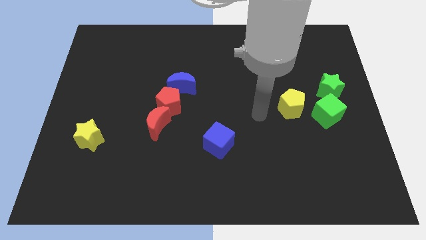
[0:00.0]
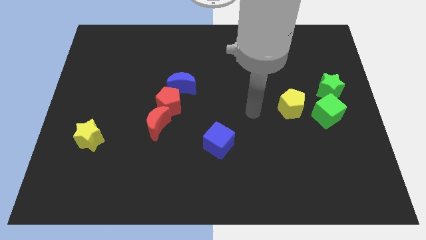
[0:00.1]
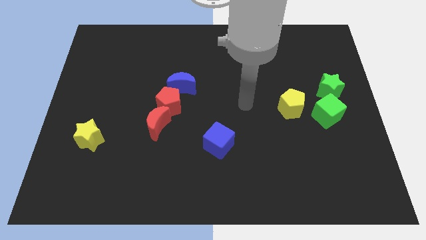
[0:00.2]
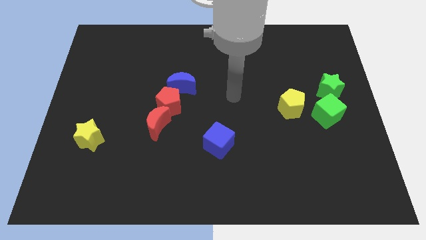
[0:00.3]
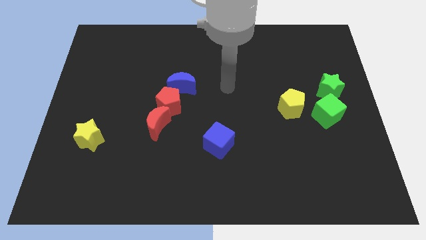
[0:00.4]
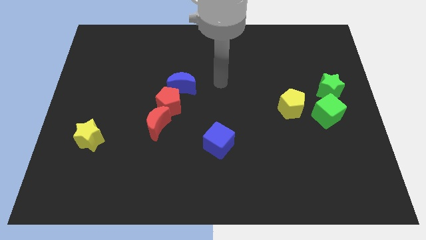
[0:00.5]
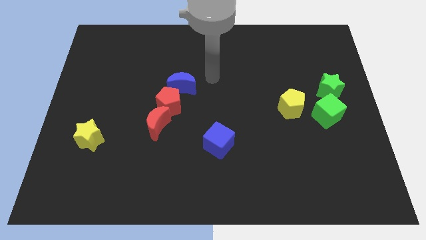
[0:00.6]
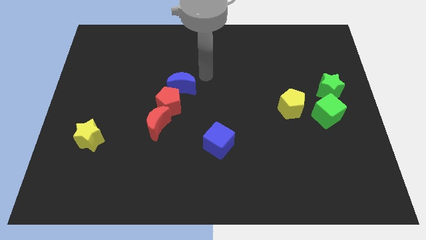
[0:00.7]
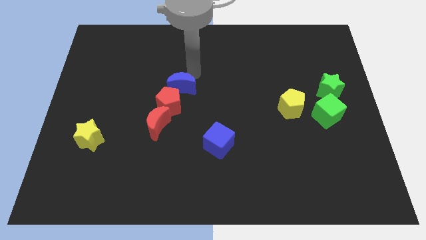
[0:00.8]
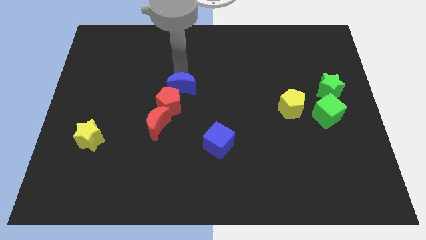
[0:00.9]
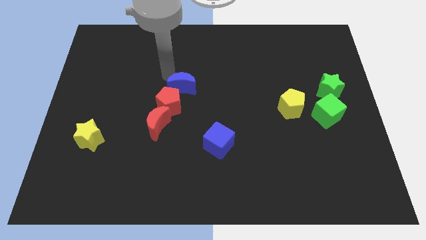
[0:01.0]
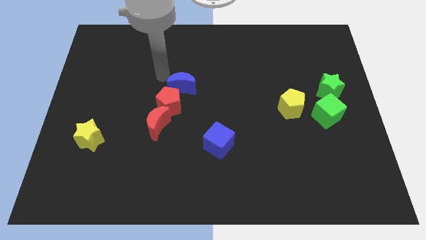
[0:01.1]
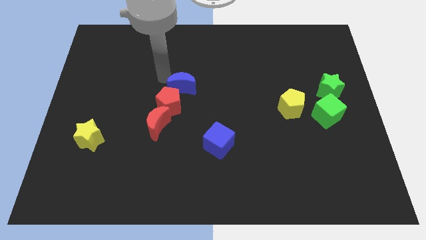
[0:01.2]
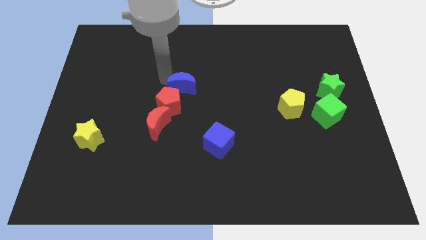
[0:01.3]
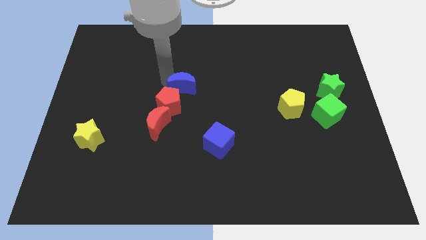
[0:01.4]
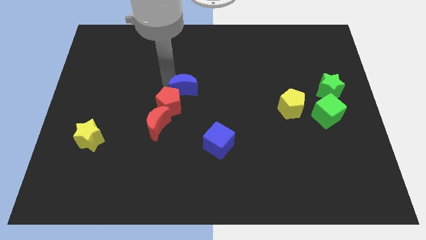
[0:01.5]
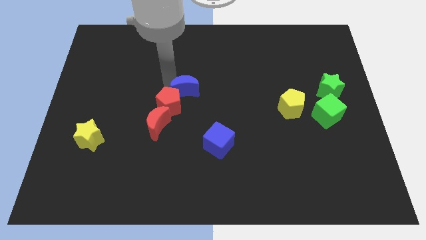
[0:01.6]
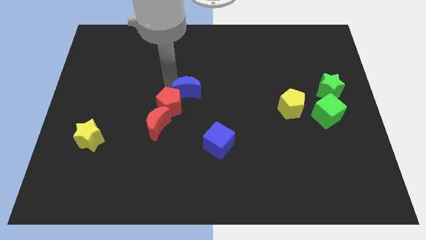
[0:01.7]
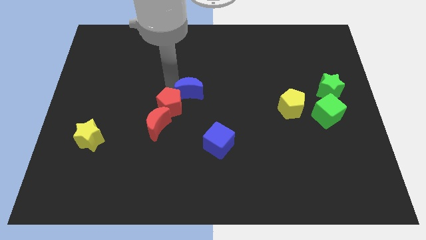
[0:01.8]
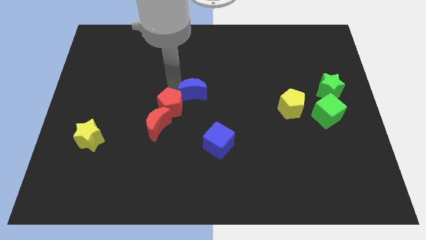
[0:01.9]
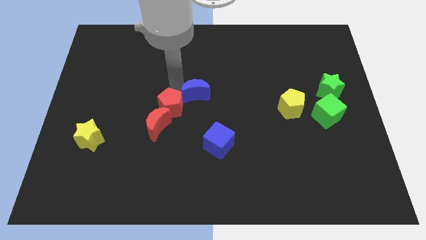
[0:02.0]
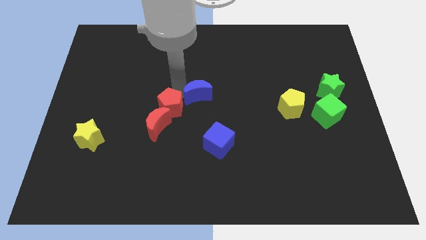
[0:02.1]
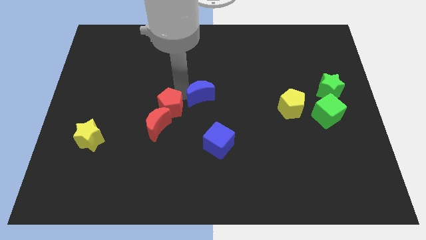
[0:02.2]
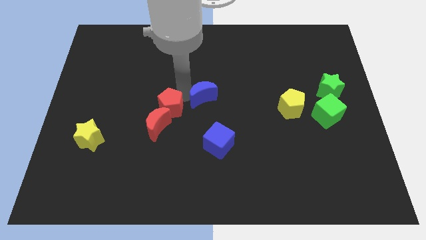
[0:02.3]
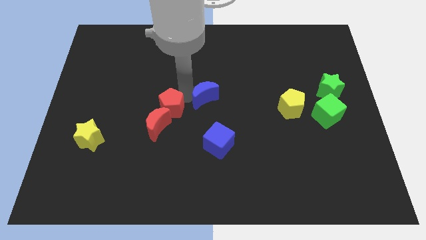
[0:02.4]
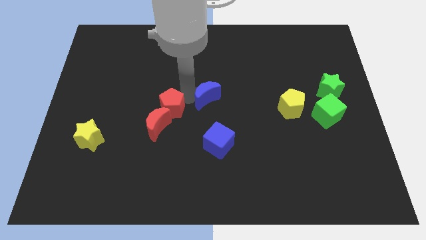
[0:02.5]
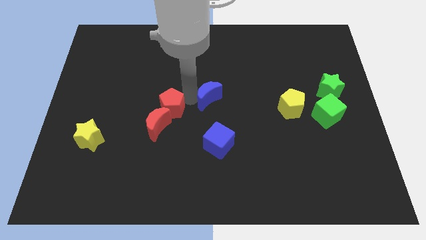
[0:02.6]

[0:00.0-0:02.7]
slightly slide the blue moon downwards and right diagonally

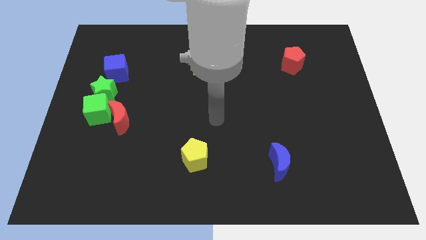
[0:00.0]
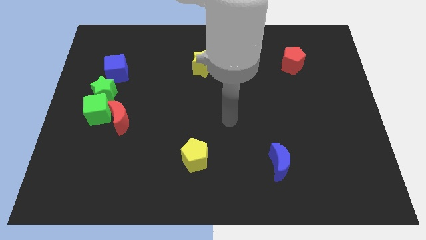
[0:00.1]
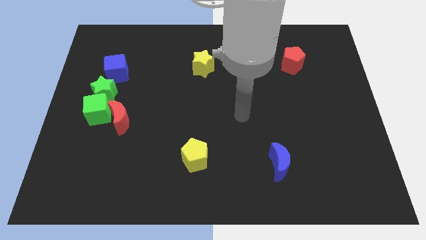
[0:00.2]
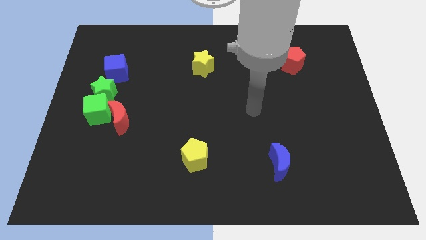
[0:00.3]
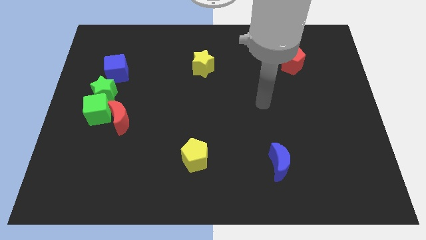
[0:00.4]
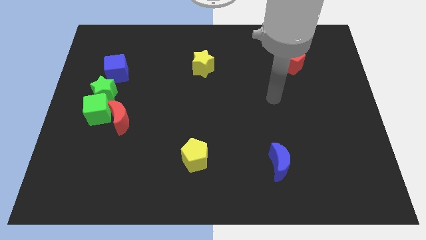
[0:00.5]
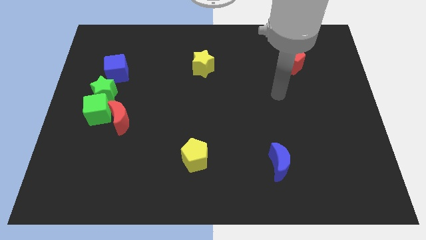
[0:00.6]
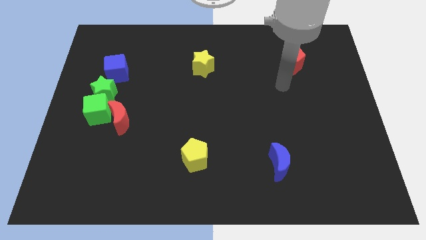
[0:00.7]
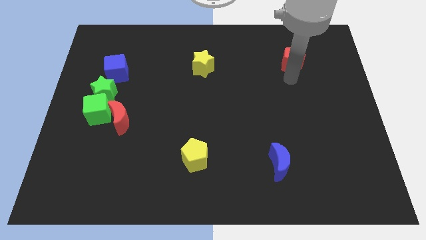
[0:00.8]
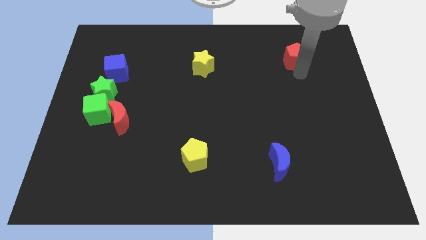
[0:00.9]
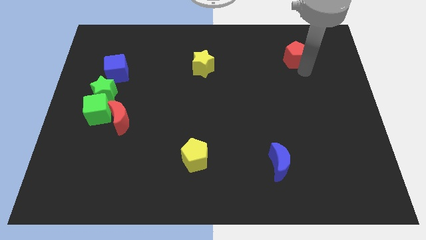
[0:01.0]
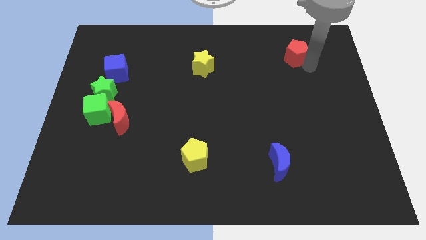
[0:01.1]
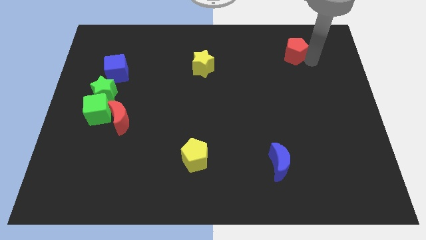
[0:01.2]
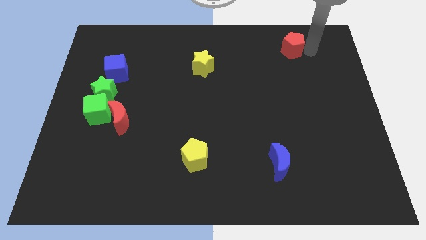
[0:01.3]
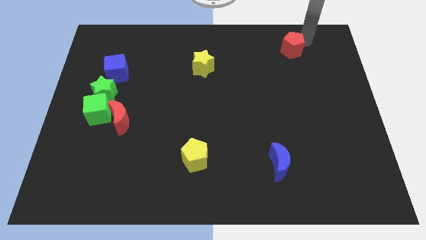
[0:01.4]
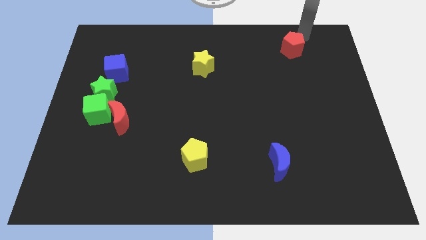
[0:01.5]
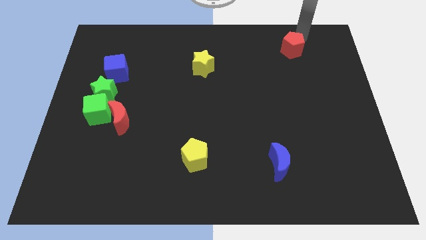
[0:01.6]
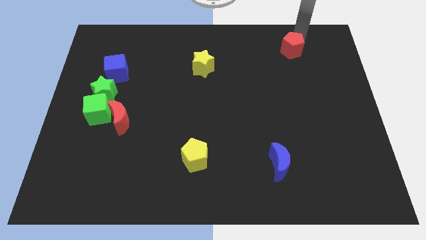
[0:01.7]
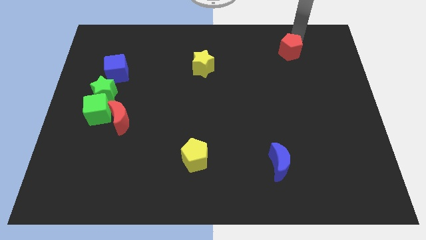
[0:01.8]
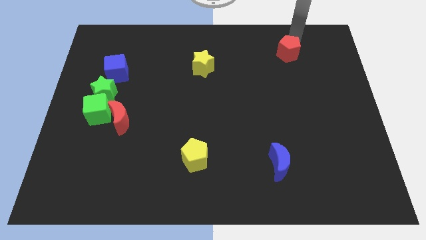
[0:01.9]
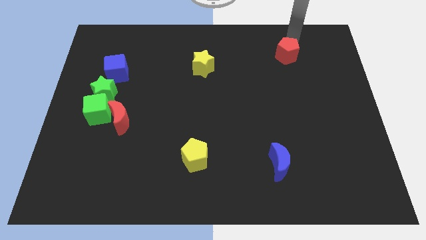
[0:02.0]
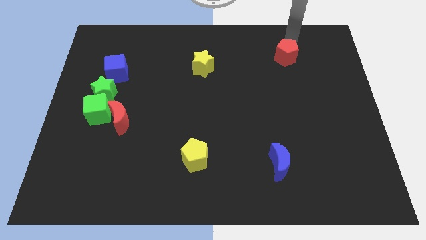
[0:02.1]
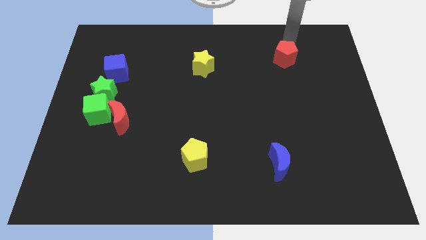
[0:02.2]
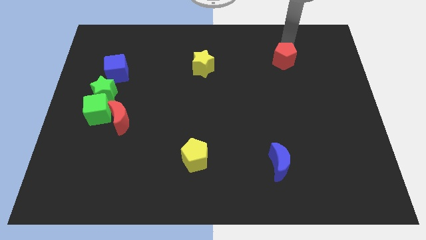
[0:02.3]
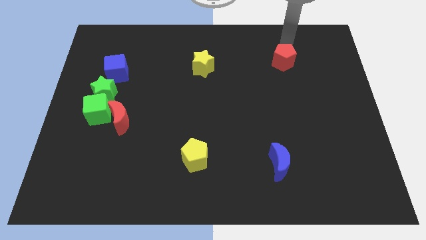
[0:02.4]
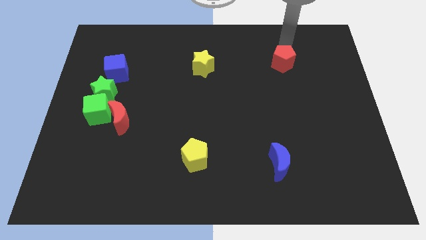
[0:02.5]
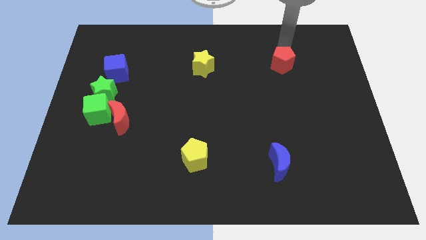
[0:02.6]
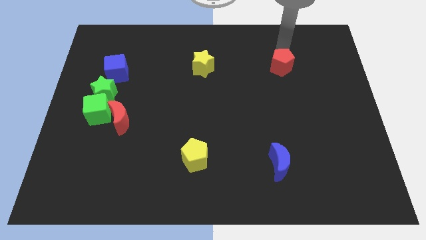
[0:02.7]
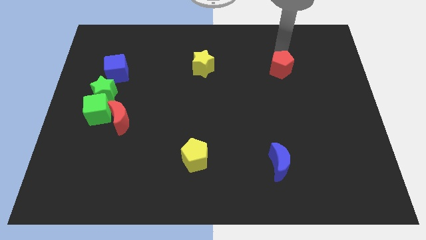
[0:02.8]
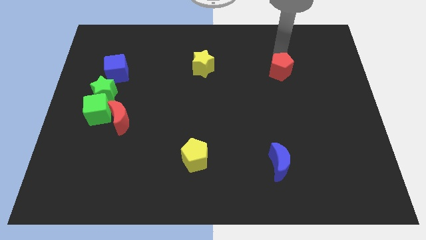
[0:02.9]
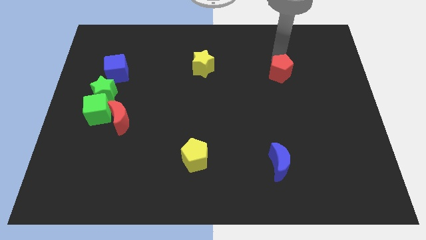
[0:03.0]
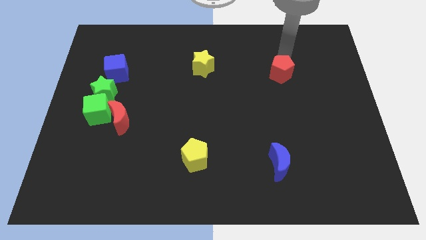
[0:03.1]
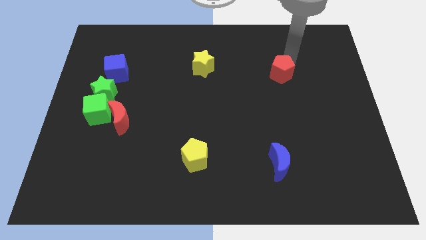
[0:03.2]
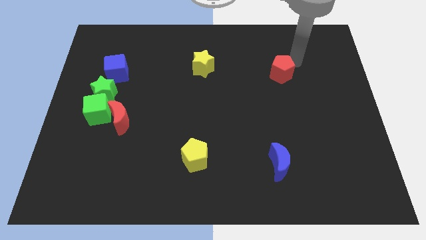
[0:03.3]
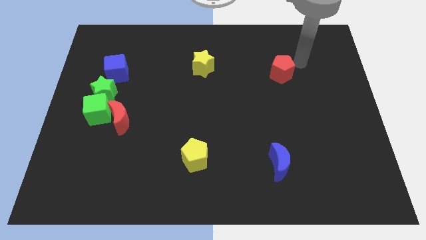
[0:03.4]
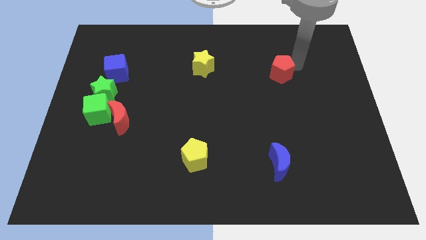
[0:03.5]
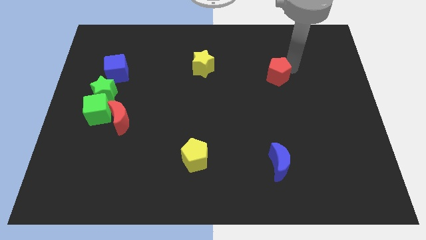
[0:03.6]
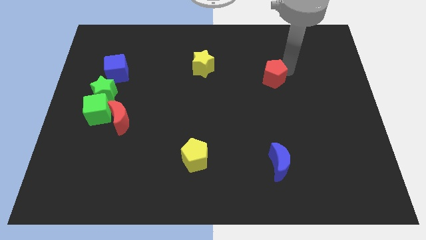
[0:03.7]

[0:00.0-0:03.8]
slide the red pentagon downwards and then left a bit

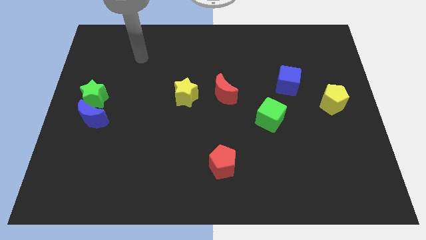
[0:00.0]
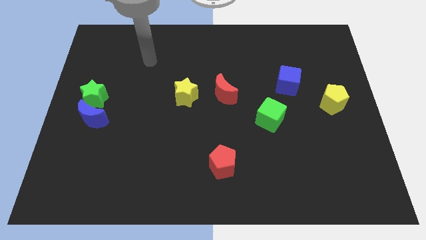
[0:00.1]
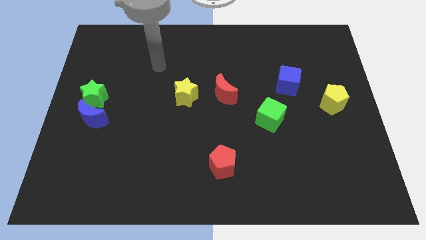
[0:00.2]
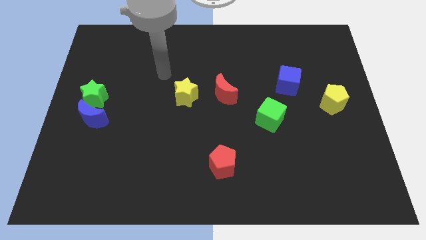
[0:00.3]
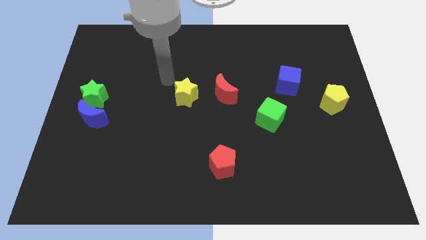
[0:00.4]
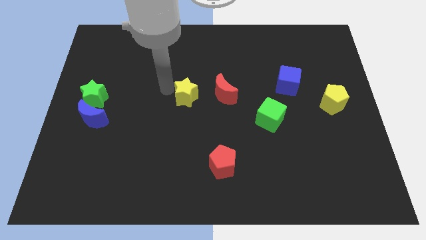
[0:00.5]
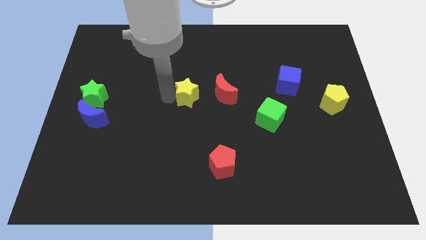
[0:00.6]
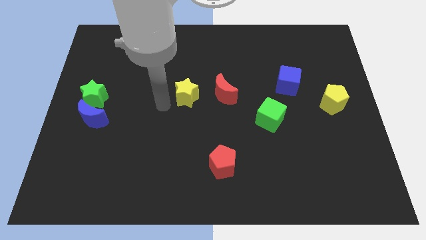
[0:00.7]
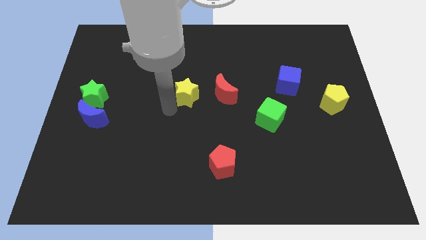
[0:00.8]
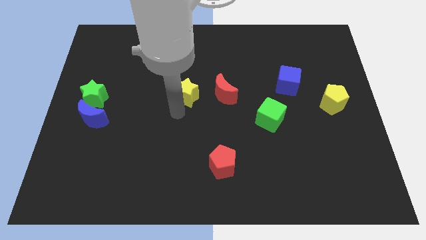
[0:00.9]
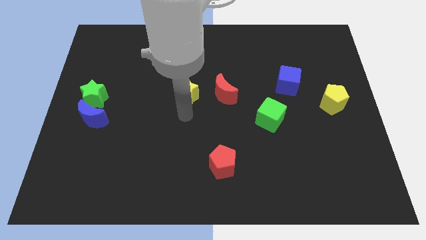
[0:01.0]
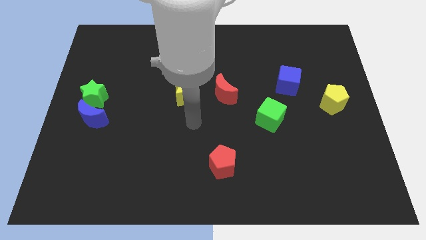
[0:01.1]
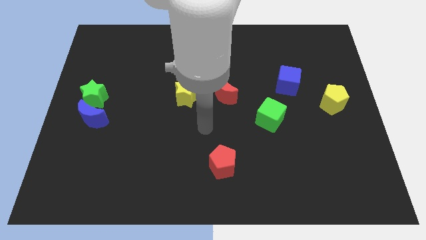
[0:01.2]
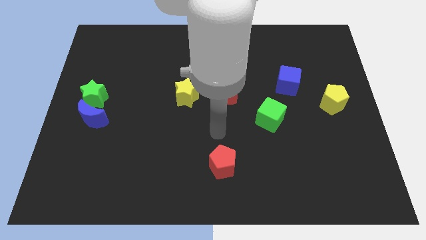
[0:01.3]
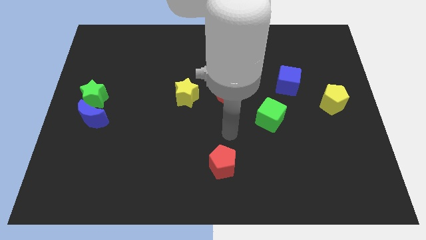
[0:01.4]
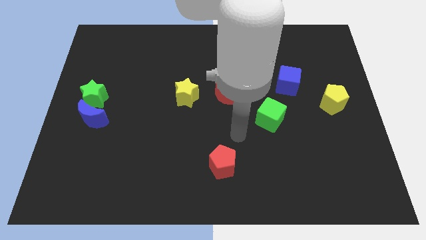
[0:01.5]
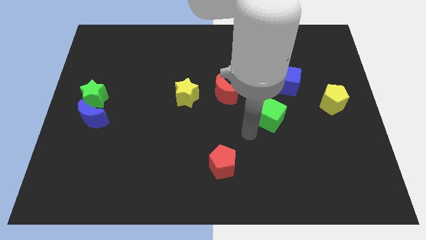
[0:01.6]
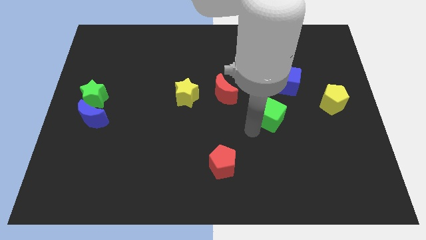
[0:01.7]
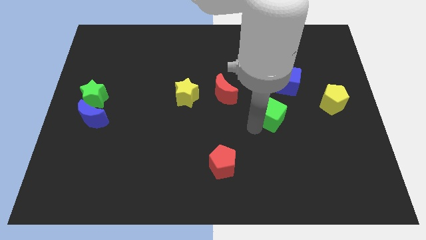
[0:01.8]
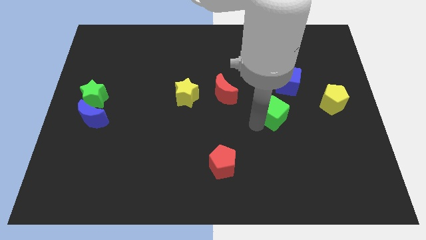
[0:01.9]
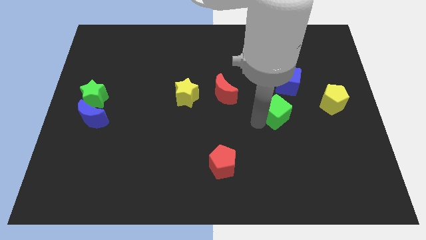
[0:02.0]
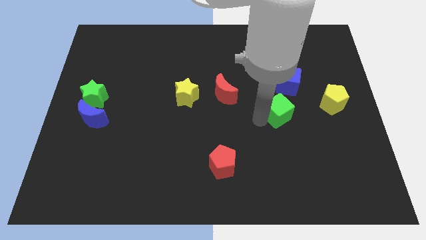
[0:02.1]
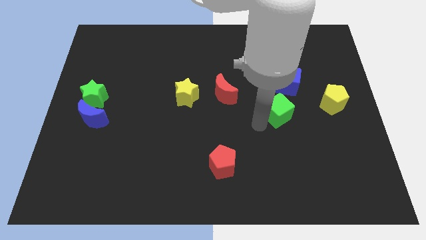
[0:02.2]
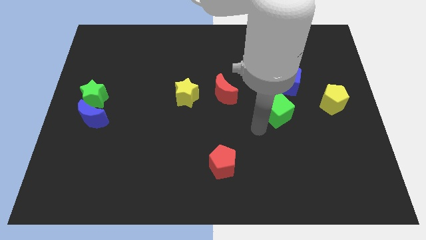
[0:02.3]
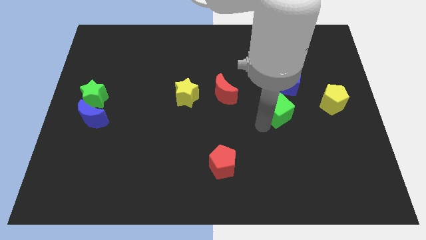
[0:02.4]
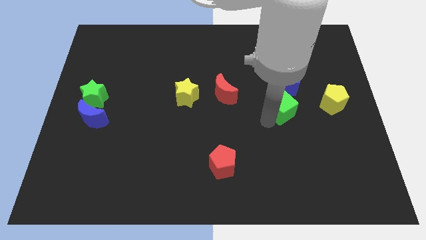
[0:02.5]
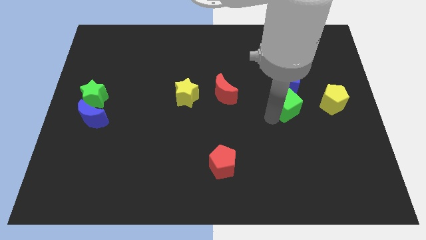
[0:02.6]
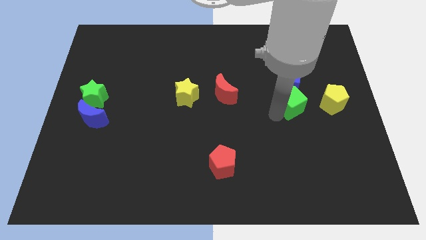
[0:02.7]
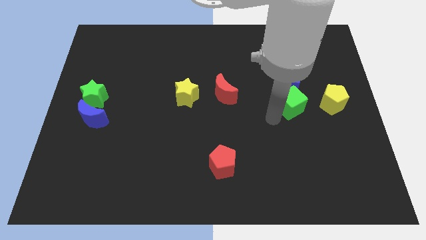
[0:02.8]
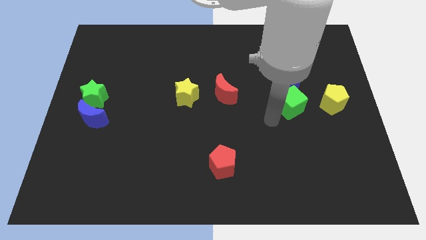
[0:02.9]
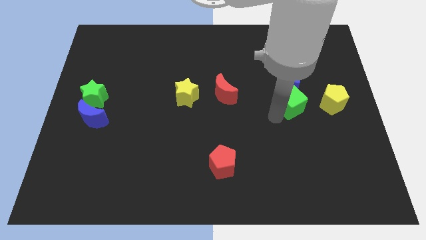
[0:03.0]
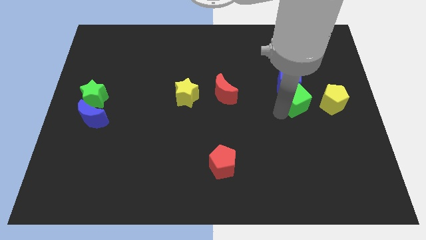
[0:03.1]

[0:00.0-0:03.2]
slide the green cube a little up and right
